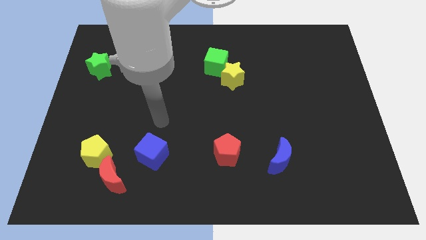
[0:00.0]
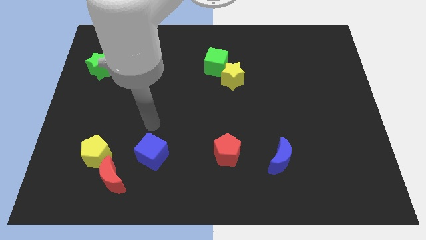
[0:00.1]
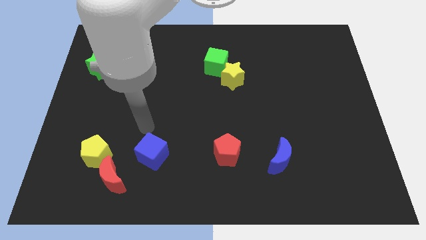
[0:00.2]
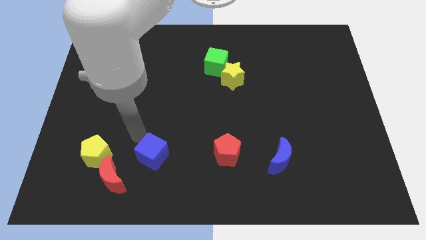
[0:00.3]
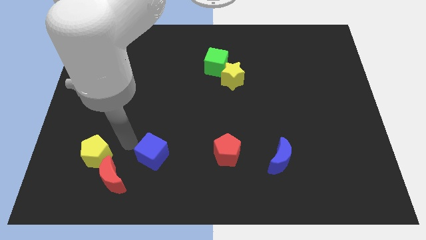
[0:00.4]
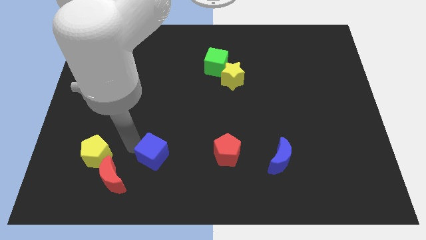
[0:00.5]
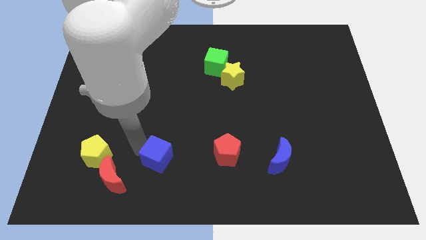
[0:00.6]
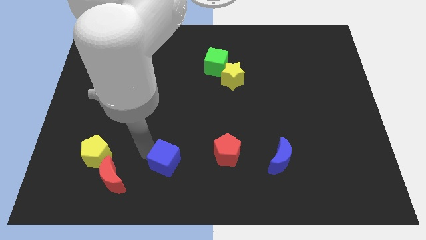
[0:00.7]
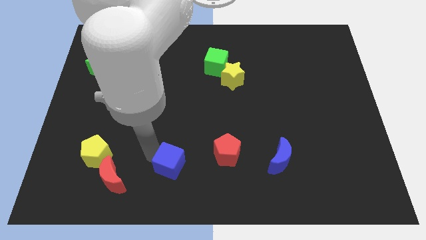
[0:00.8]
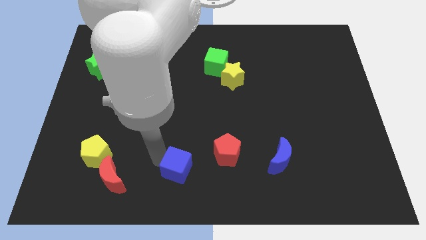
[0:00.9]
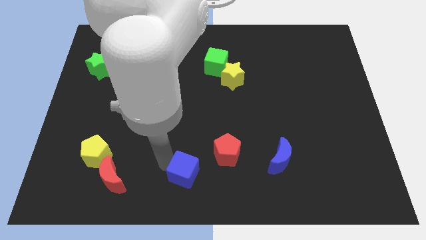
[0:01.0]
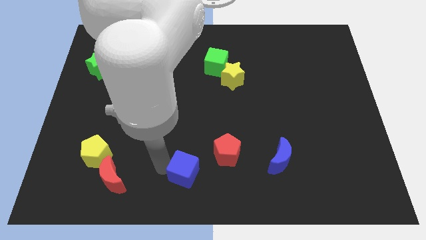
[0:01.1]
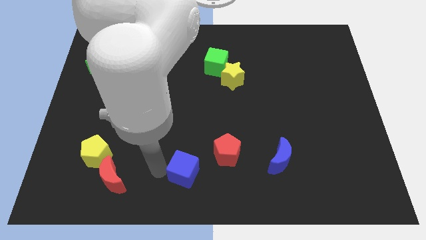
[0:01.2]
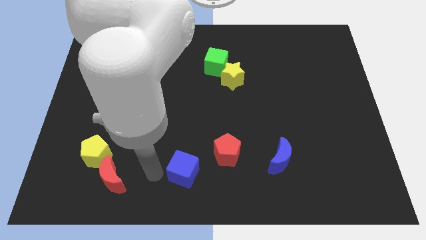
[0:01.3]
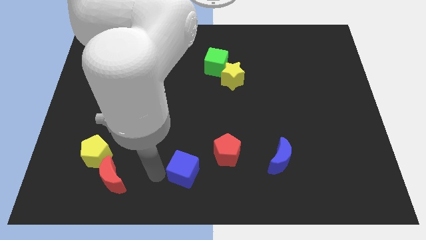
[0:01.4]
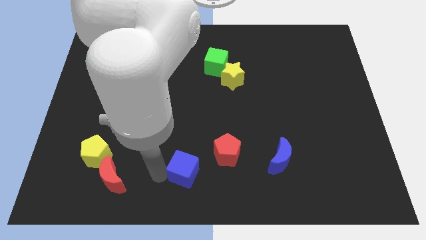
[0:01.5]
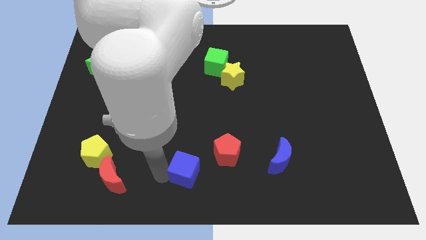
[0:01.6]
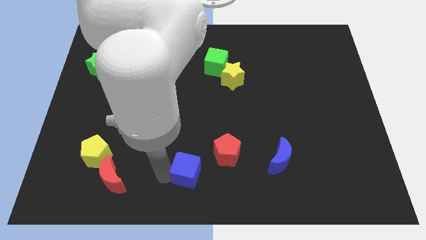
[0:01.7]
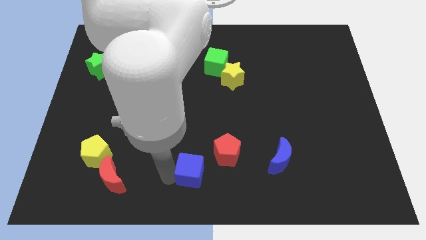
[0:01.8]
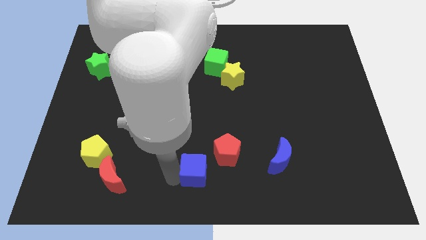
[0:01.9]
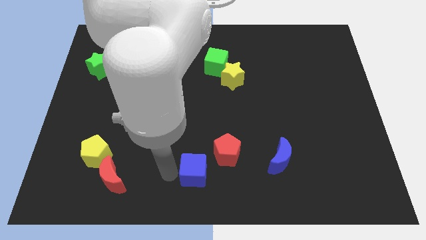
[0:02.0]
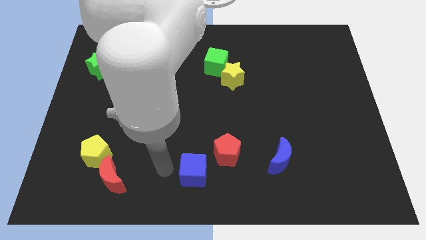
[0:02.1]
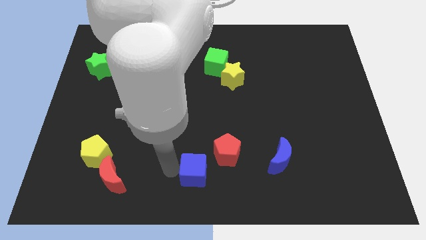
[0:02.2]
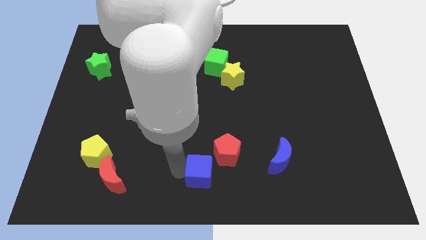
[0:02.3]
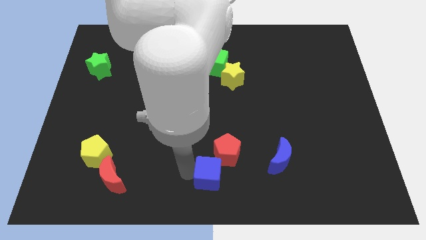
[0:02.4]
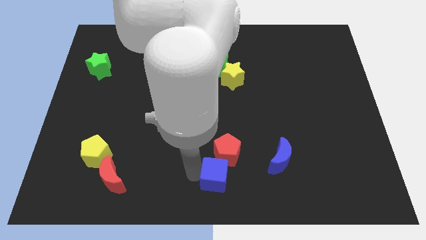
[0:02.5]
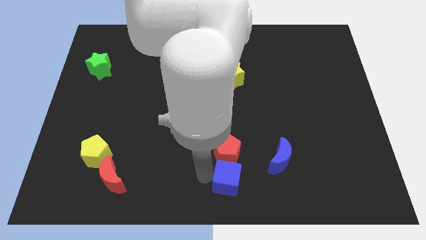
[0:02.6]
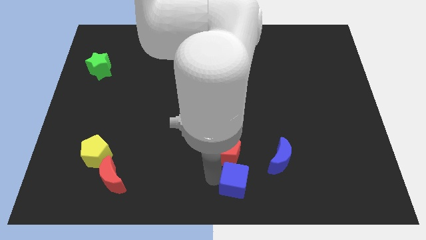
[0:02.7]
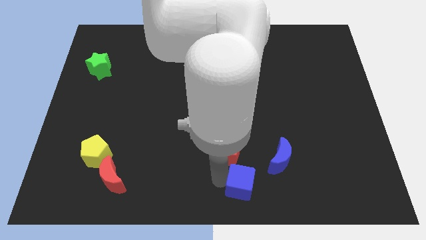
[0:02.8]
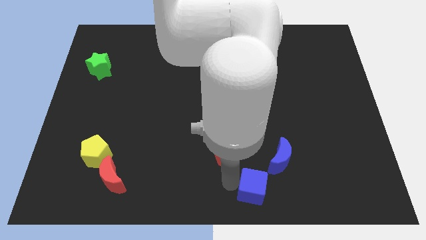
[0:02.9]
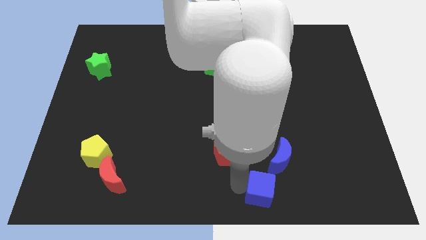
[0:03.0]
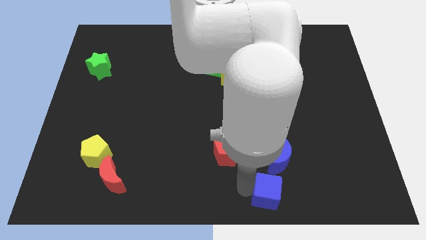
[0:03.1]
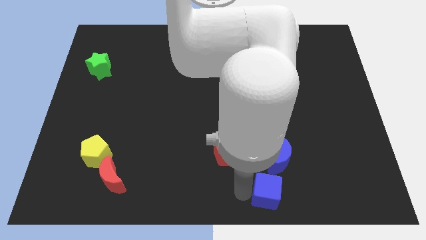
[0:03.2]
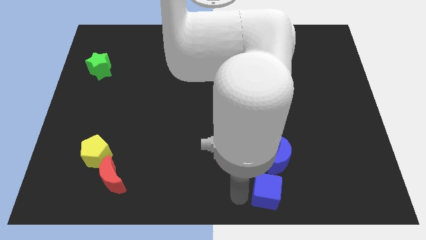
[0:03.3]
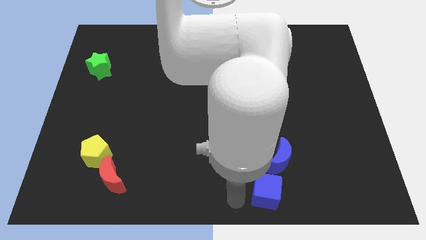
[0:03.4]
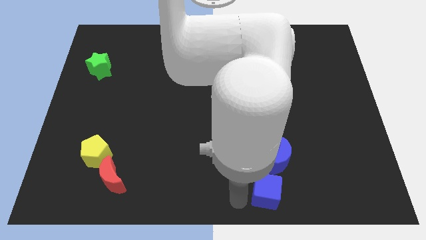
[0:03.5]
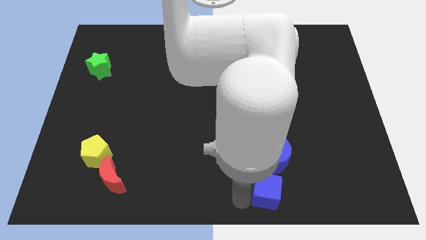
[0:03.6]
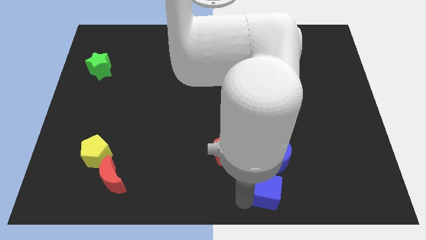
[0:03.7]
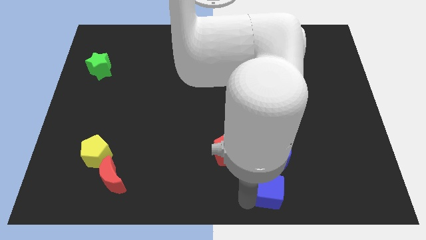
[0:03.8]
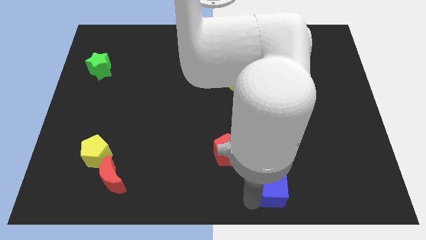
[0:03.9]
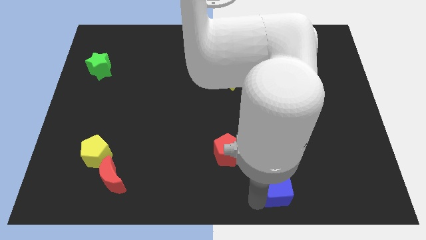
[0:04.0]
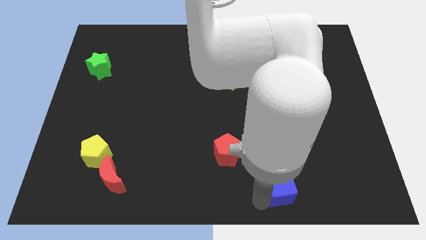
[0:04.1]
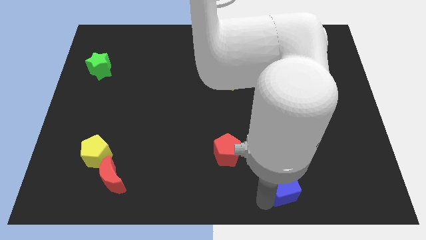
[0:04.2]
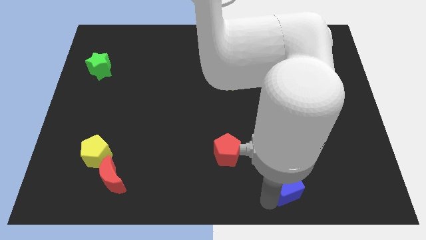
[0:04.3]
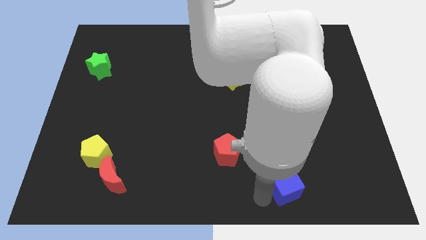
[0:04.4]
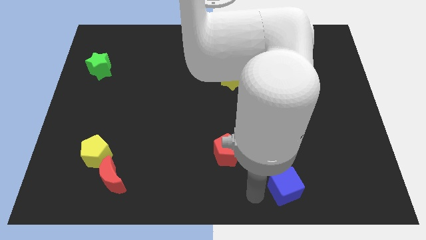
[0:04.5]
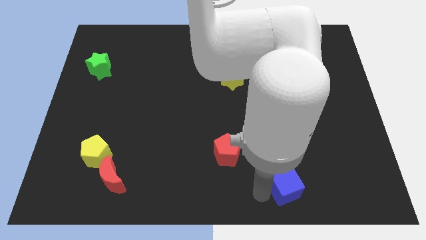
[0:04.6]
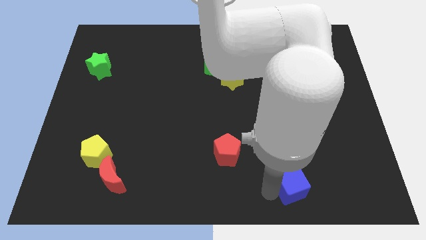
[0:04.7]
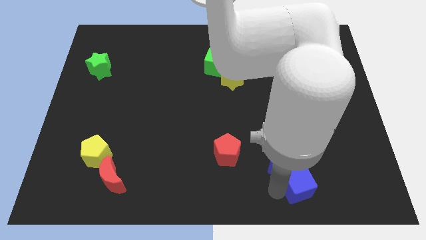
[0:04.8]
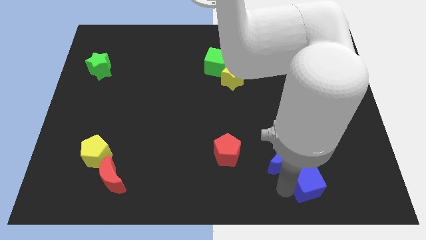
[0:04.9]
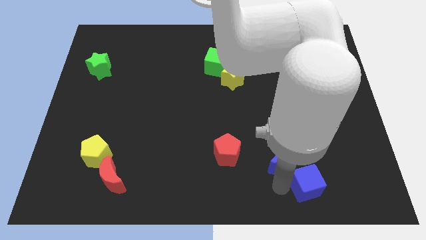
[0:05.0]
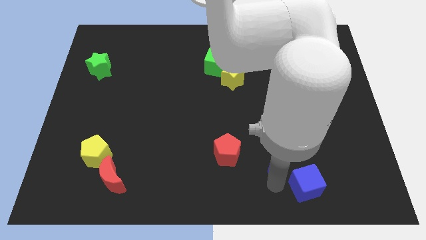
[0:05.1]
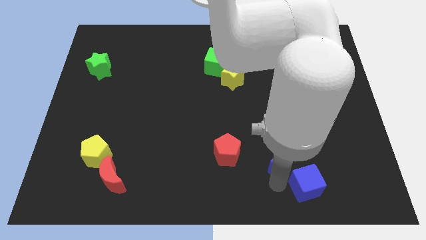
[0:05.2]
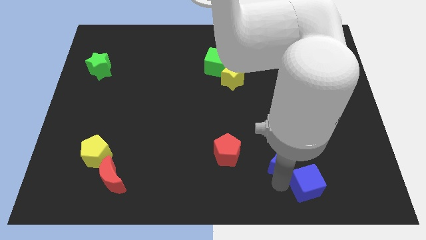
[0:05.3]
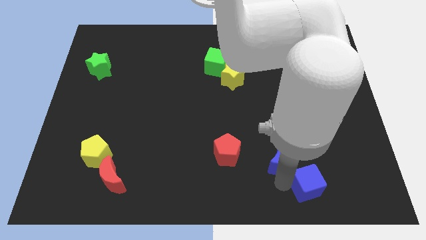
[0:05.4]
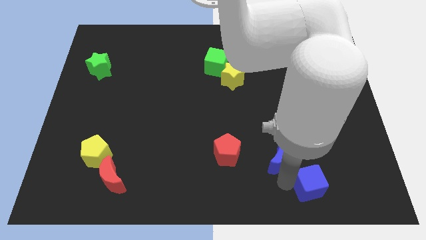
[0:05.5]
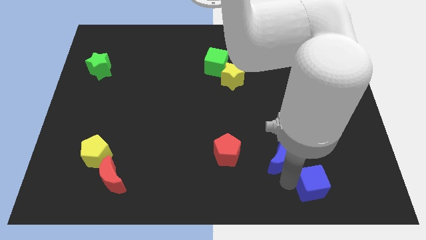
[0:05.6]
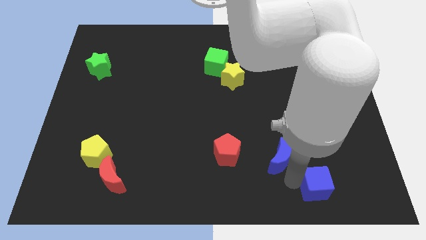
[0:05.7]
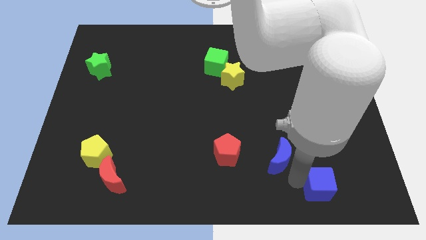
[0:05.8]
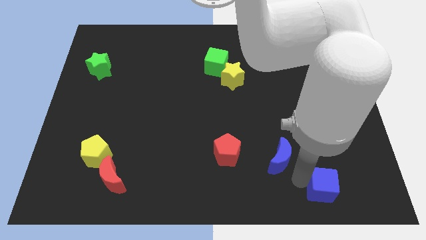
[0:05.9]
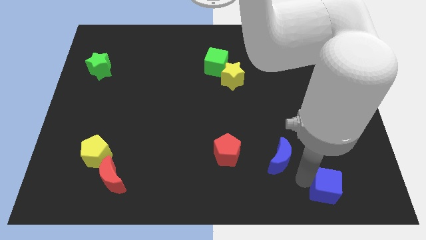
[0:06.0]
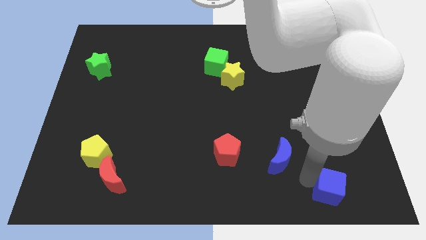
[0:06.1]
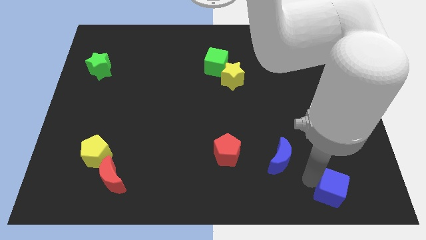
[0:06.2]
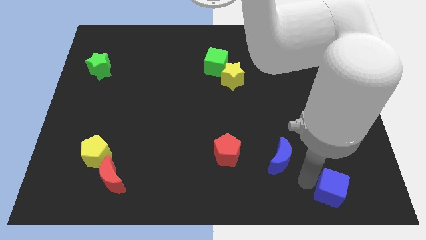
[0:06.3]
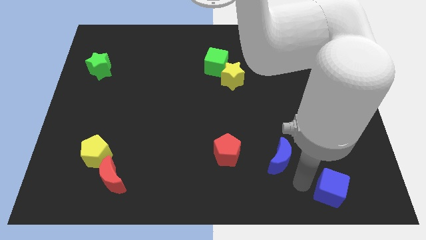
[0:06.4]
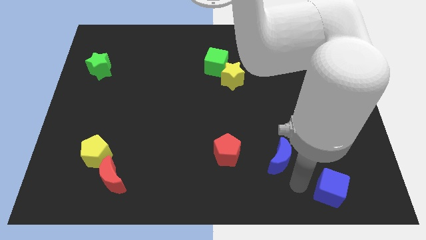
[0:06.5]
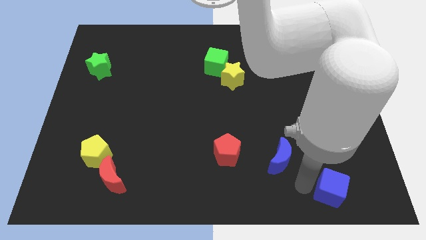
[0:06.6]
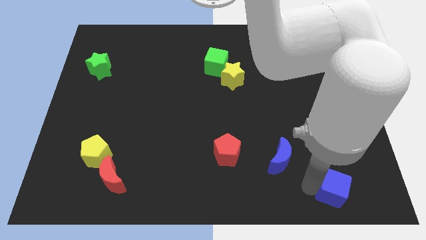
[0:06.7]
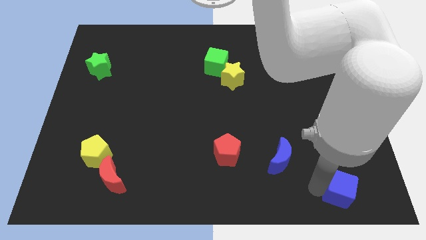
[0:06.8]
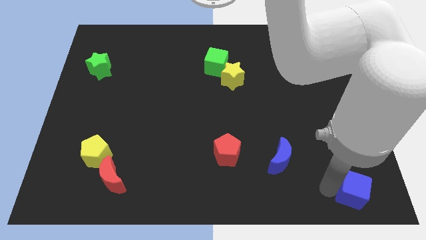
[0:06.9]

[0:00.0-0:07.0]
move the blue cube to the bottom right of the board
